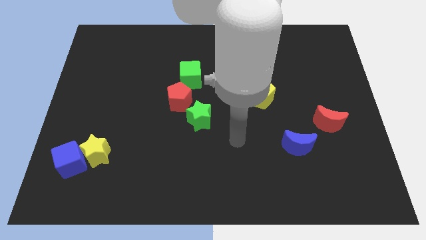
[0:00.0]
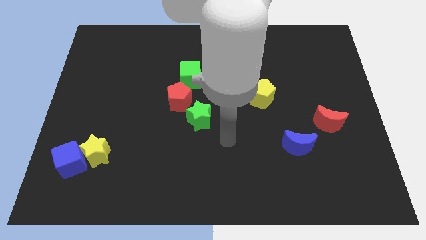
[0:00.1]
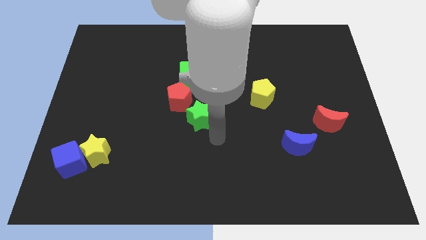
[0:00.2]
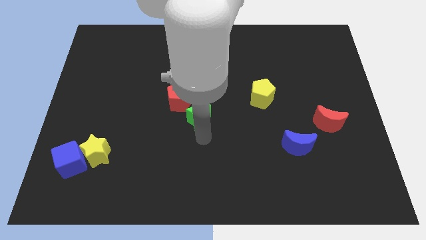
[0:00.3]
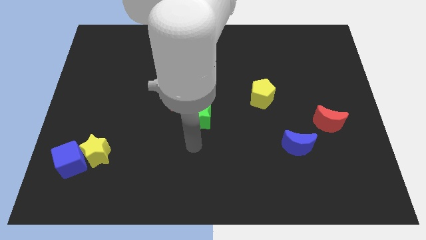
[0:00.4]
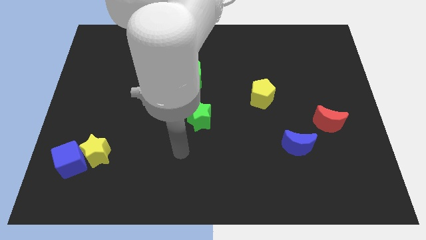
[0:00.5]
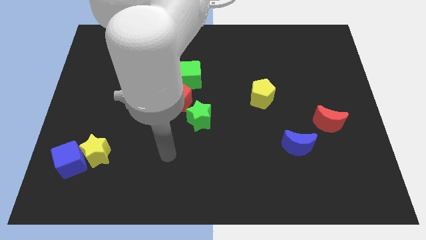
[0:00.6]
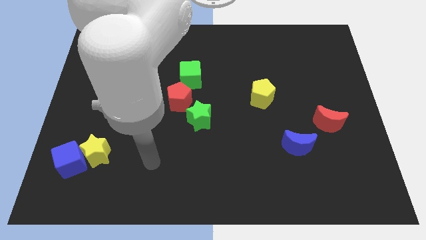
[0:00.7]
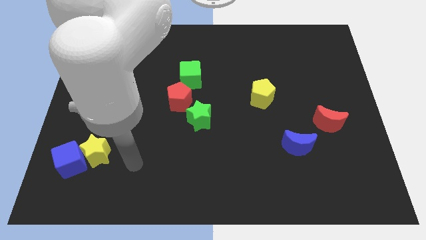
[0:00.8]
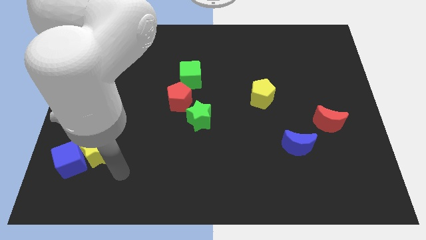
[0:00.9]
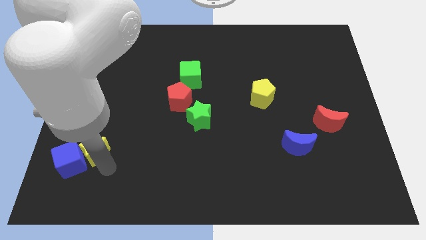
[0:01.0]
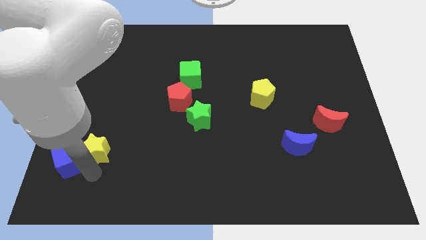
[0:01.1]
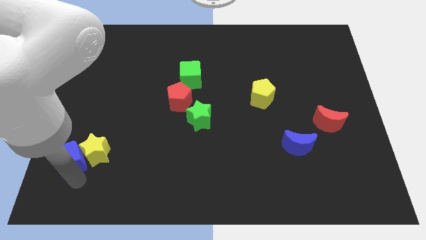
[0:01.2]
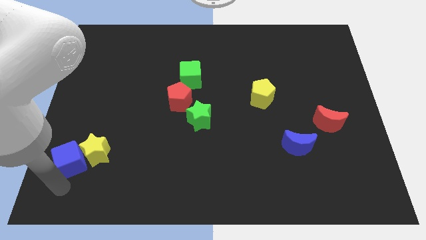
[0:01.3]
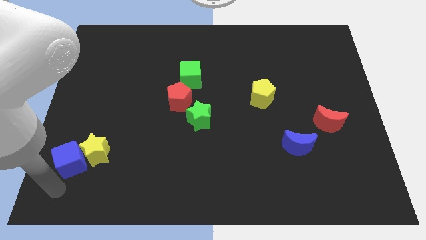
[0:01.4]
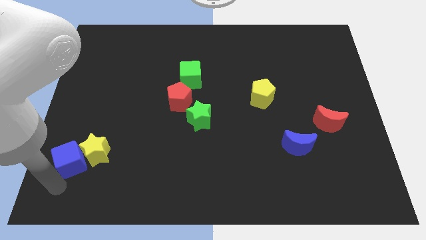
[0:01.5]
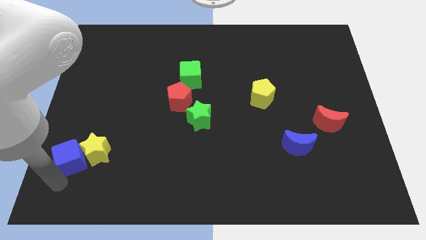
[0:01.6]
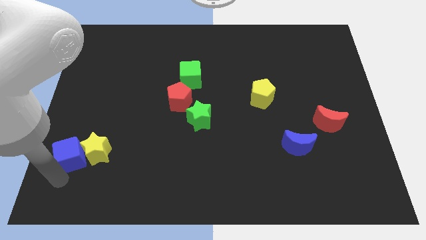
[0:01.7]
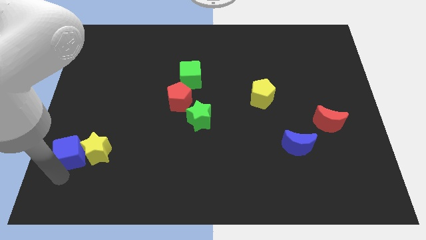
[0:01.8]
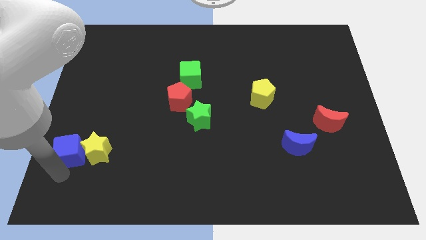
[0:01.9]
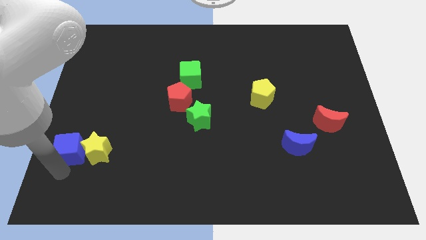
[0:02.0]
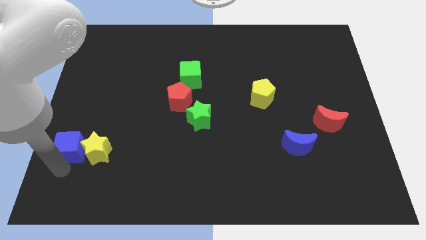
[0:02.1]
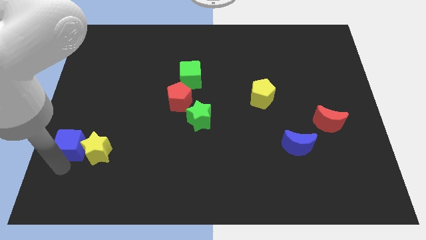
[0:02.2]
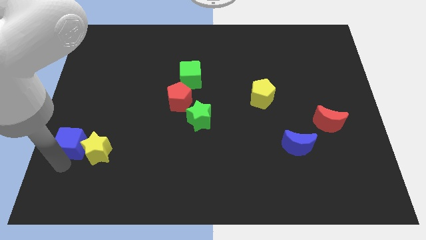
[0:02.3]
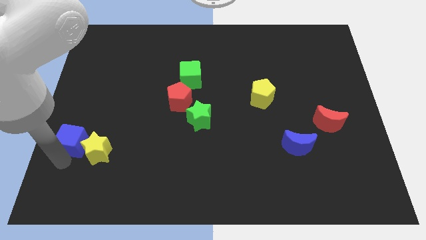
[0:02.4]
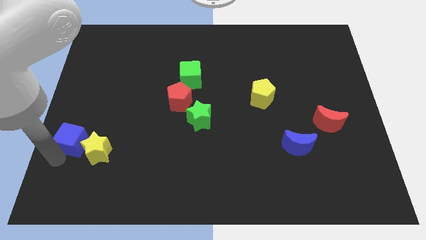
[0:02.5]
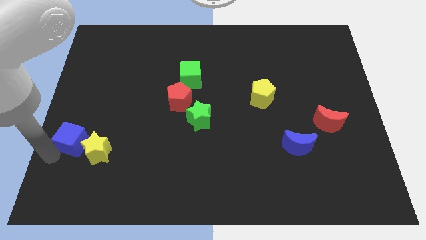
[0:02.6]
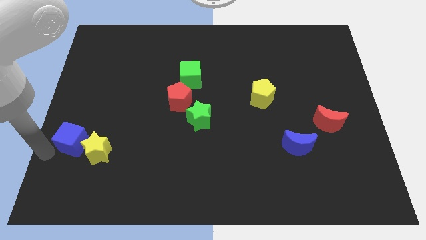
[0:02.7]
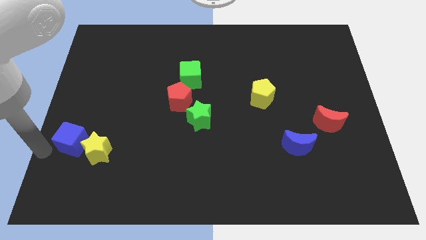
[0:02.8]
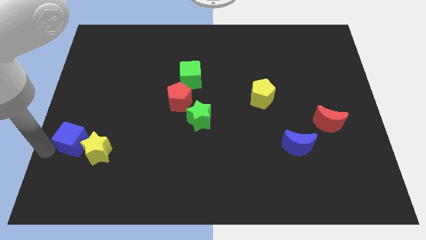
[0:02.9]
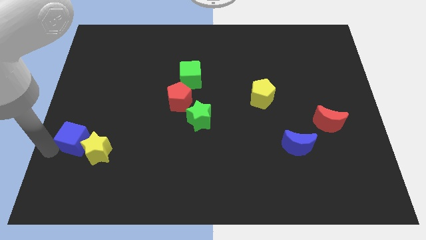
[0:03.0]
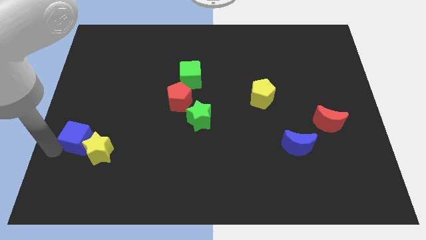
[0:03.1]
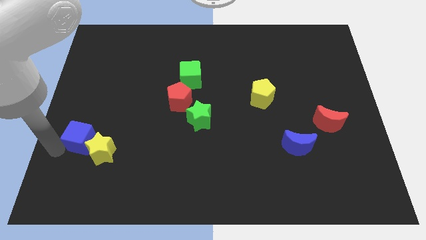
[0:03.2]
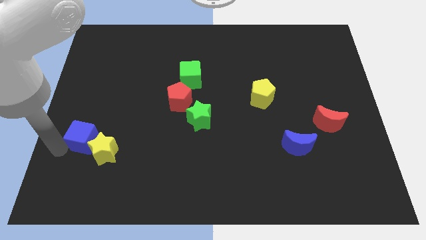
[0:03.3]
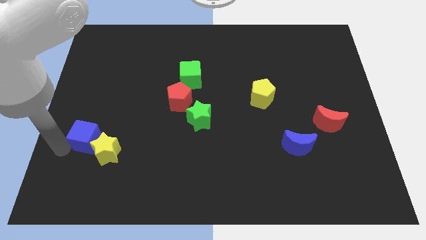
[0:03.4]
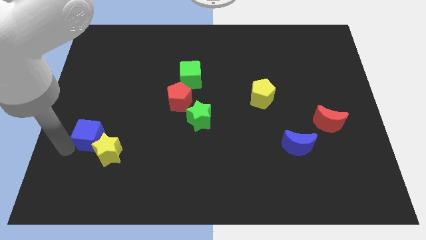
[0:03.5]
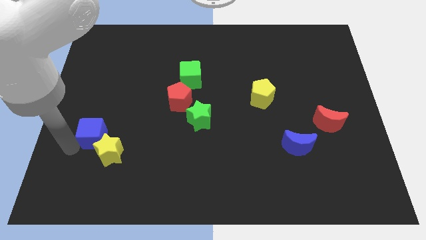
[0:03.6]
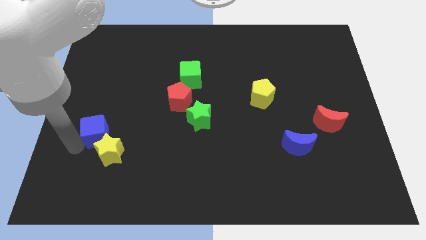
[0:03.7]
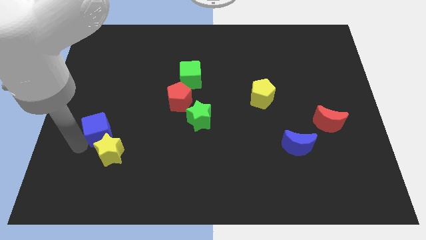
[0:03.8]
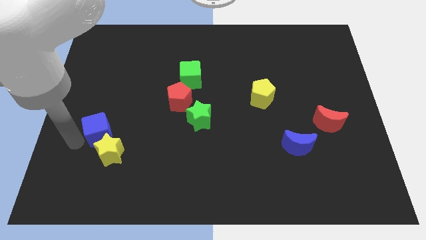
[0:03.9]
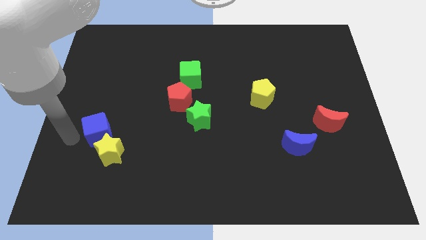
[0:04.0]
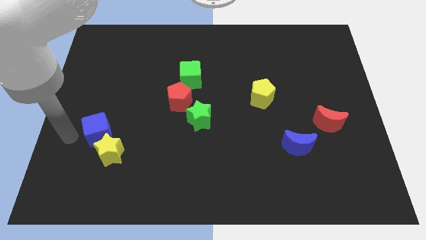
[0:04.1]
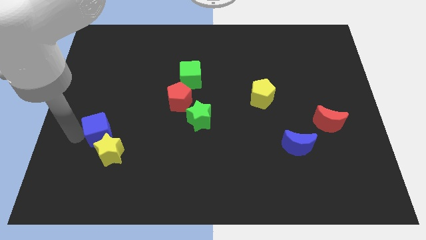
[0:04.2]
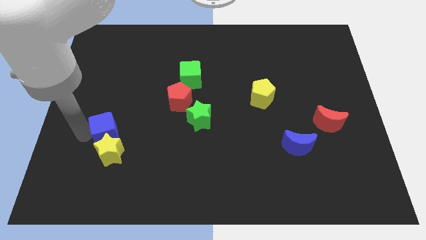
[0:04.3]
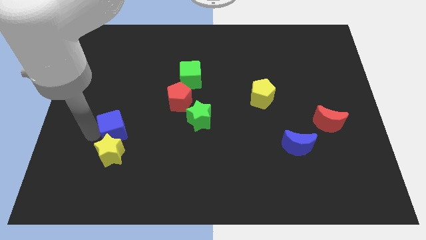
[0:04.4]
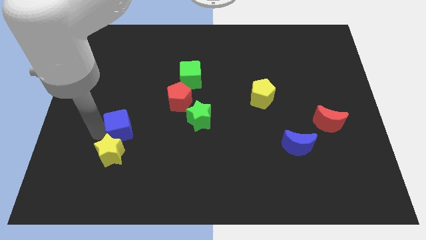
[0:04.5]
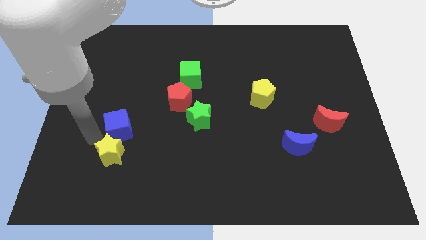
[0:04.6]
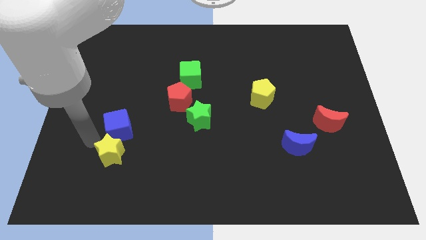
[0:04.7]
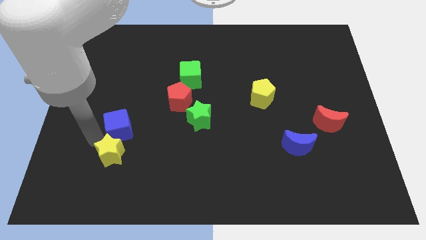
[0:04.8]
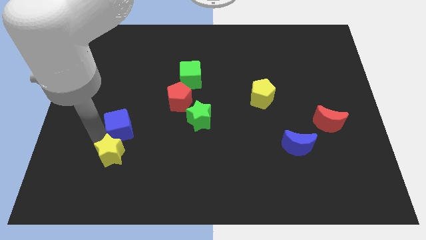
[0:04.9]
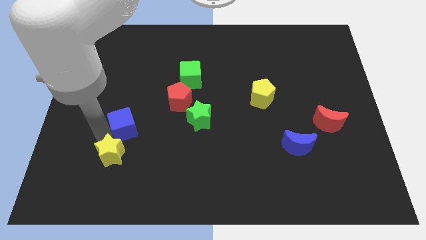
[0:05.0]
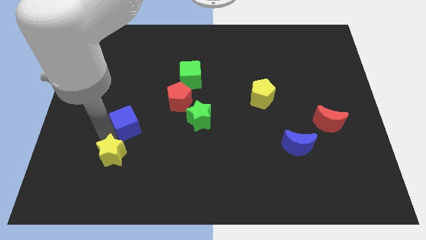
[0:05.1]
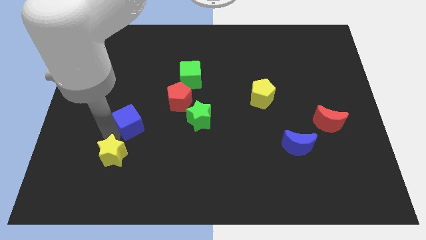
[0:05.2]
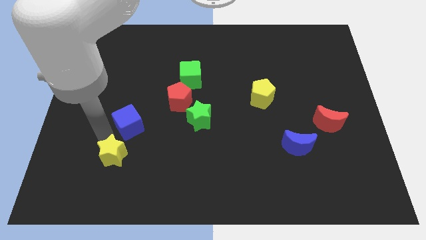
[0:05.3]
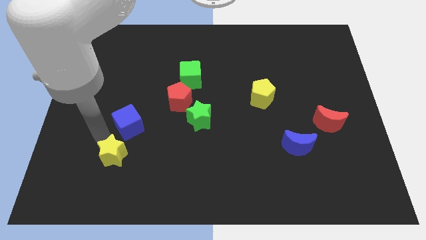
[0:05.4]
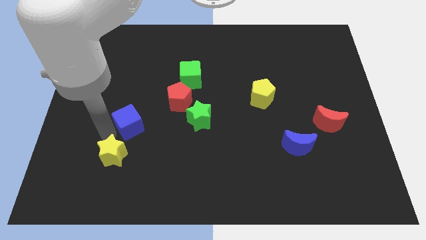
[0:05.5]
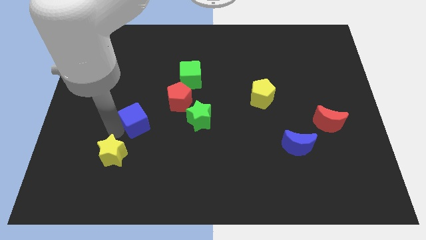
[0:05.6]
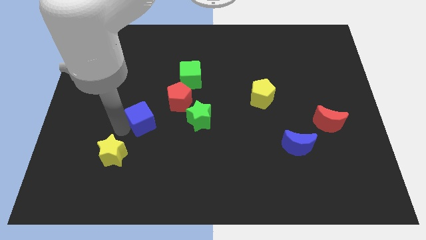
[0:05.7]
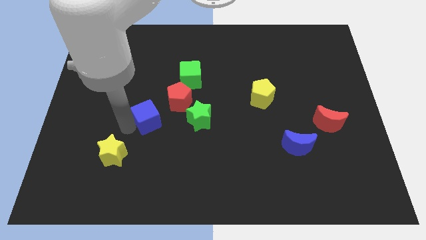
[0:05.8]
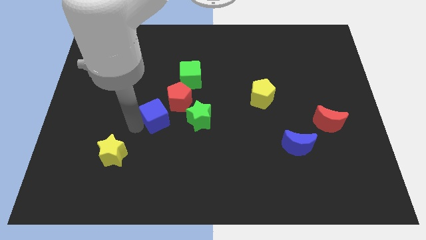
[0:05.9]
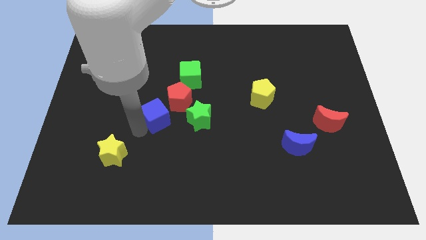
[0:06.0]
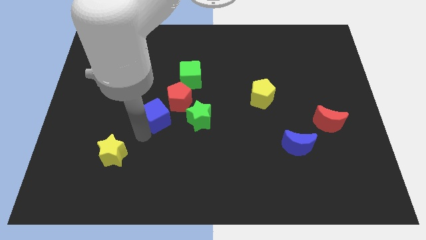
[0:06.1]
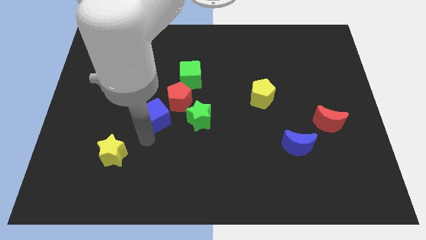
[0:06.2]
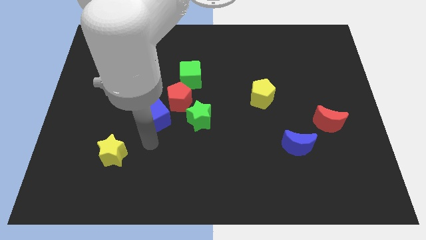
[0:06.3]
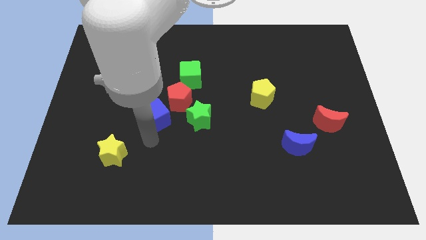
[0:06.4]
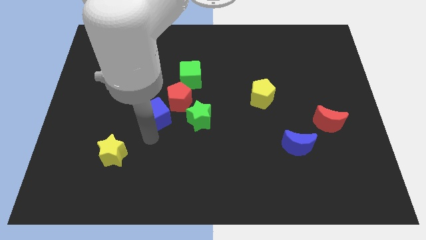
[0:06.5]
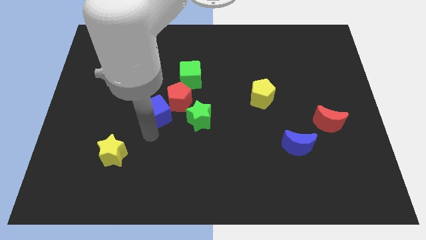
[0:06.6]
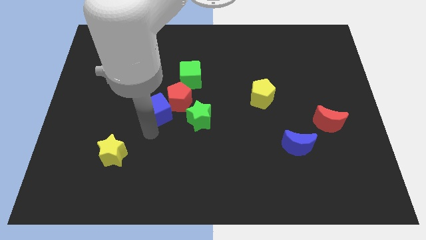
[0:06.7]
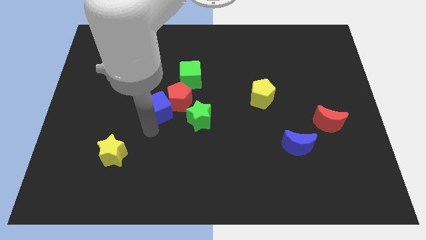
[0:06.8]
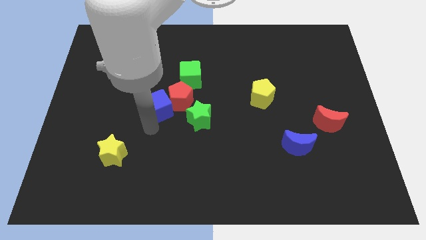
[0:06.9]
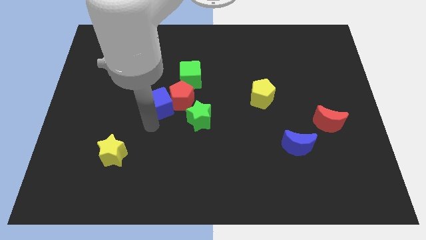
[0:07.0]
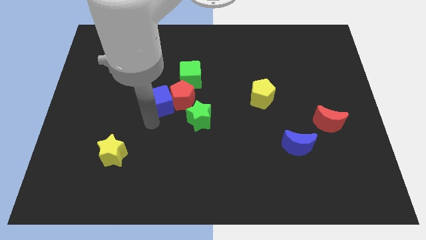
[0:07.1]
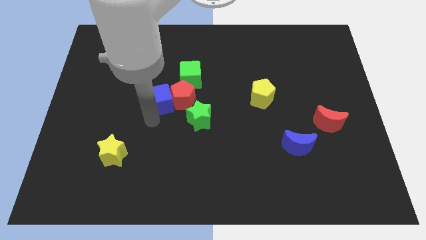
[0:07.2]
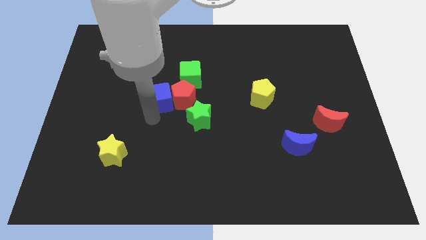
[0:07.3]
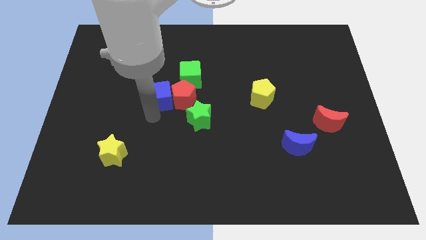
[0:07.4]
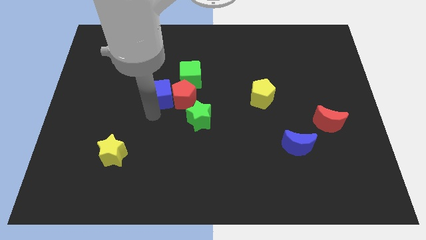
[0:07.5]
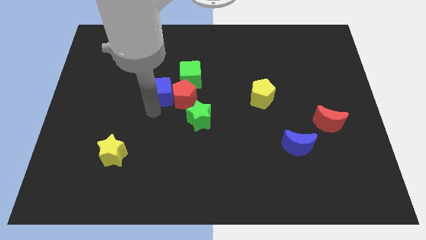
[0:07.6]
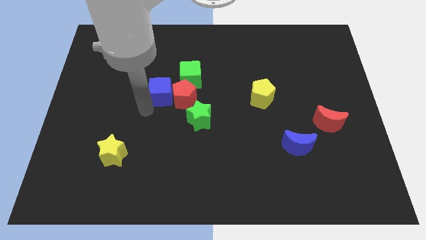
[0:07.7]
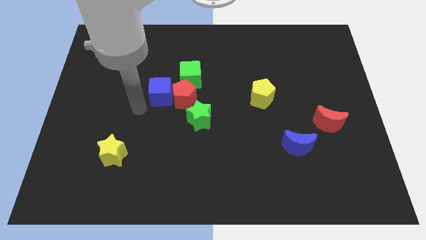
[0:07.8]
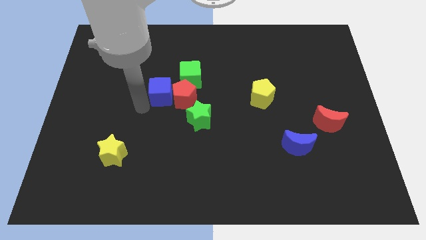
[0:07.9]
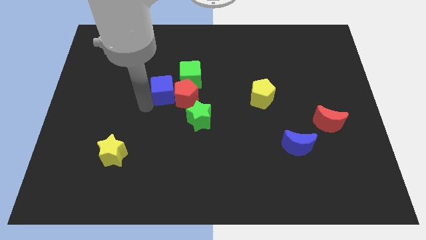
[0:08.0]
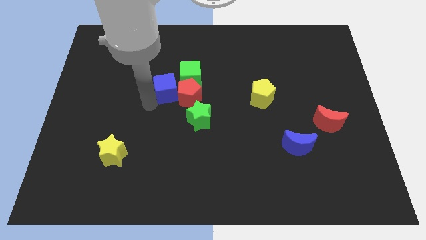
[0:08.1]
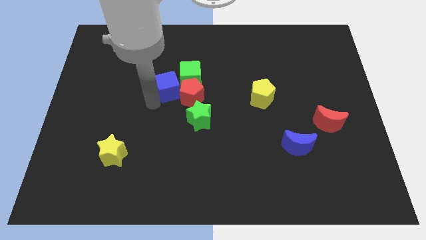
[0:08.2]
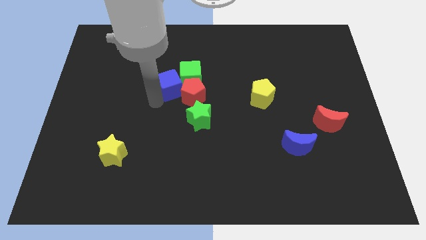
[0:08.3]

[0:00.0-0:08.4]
push the blue cube to the green cube
